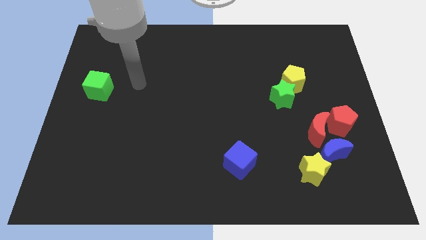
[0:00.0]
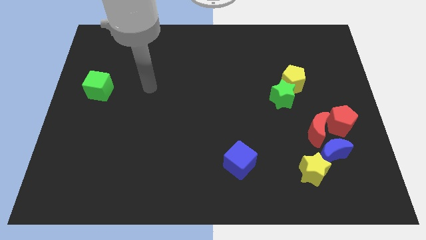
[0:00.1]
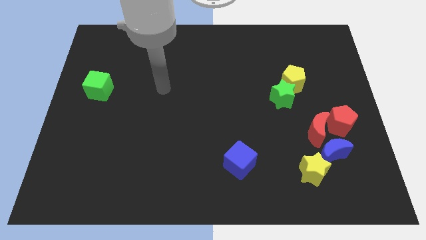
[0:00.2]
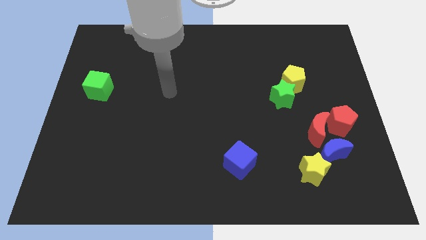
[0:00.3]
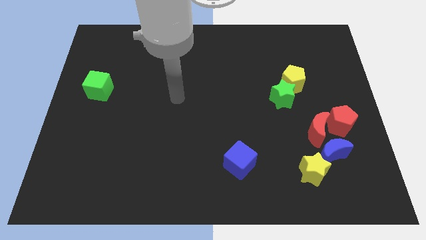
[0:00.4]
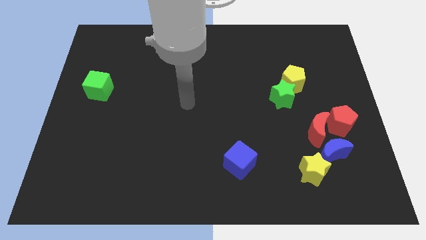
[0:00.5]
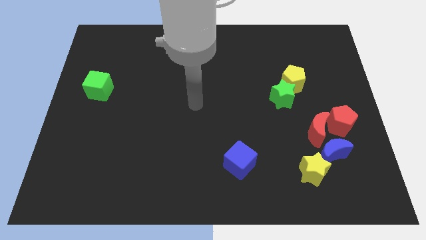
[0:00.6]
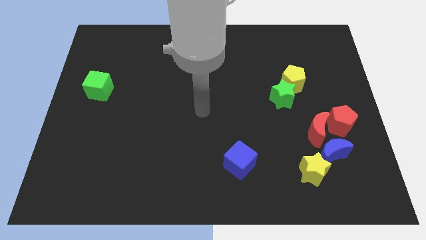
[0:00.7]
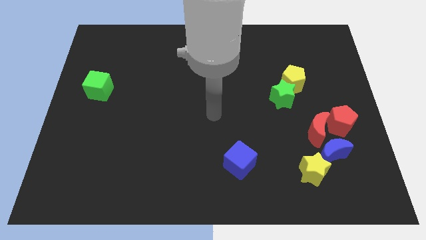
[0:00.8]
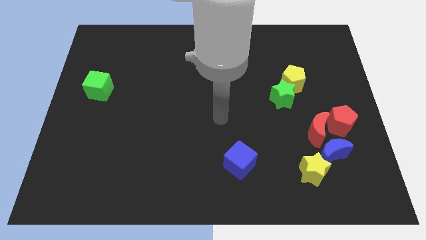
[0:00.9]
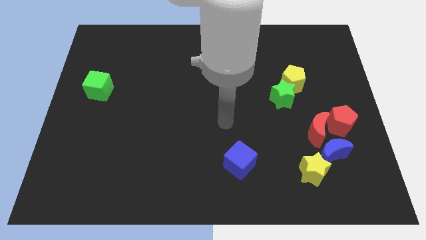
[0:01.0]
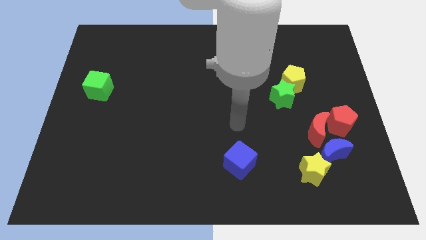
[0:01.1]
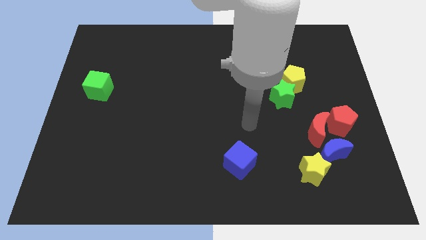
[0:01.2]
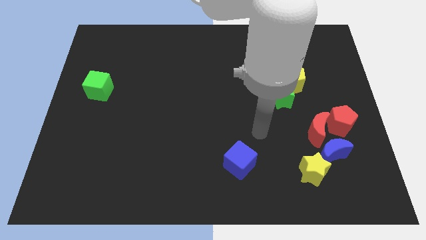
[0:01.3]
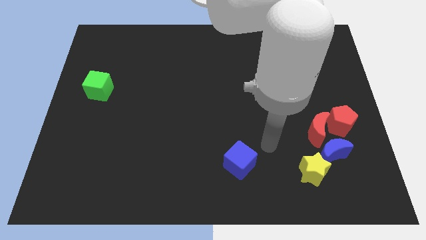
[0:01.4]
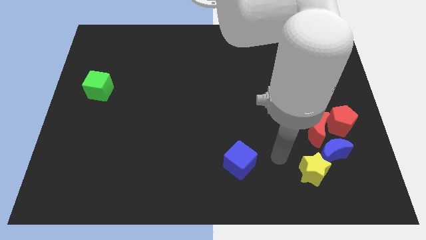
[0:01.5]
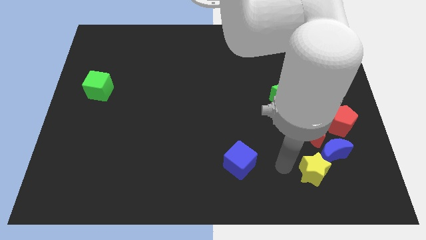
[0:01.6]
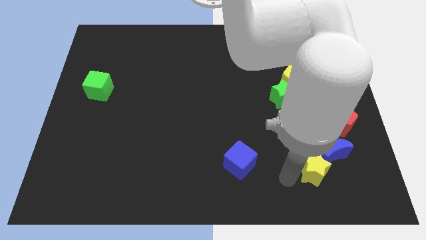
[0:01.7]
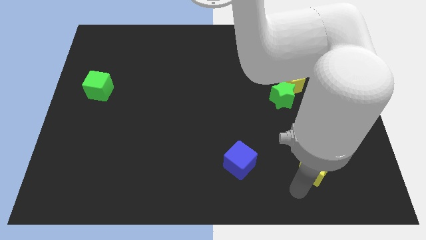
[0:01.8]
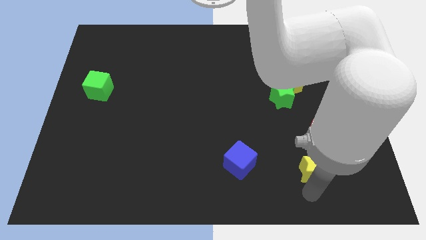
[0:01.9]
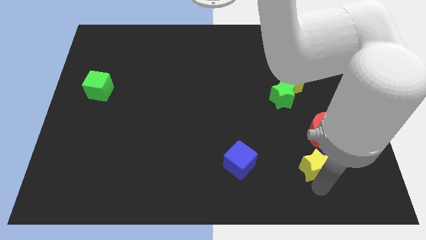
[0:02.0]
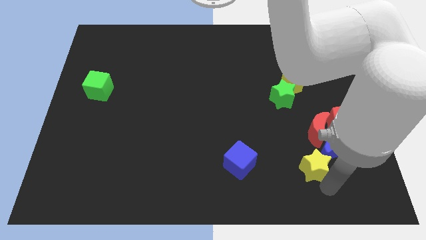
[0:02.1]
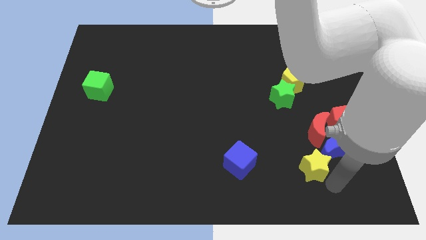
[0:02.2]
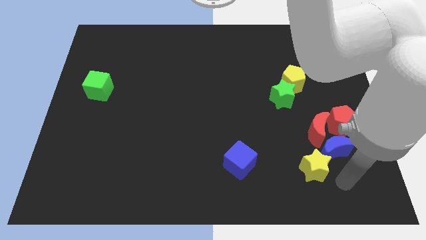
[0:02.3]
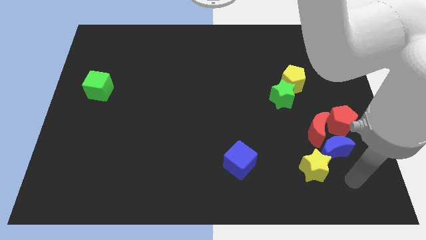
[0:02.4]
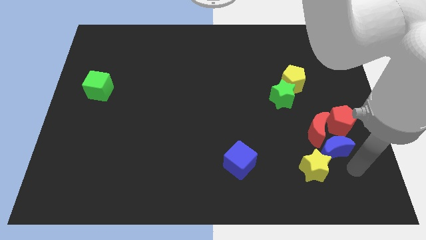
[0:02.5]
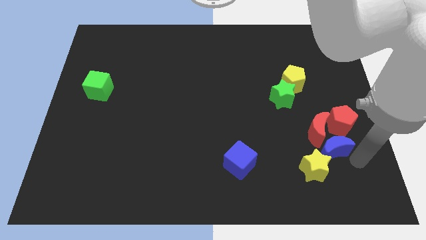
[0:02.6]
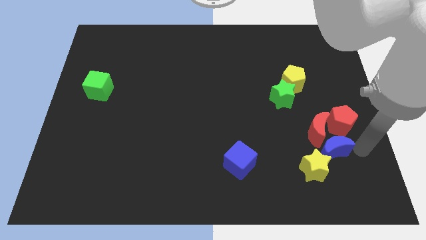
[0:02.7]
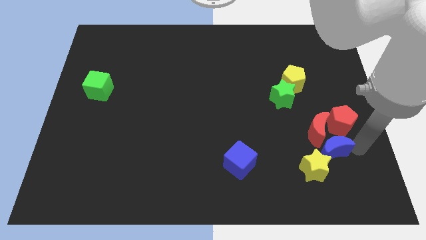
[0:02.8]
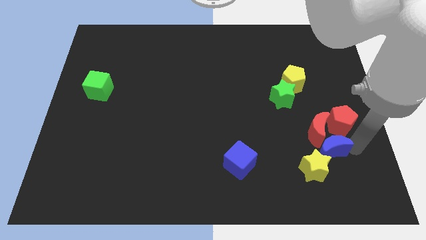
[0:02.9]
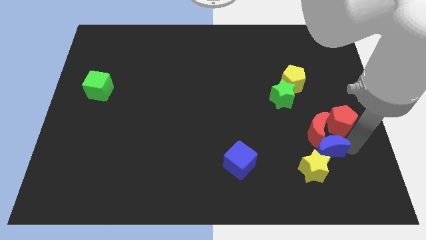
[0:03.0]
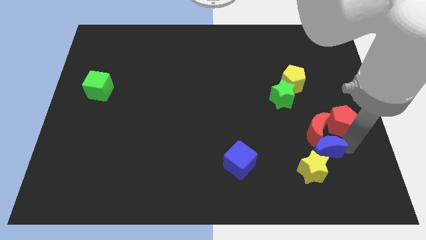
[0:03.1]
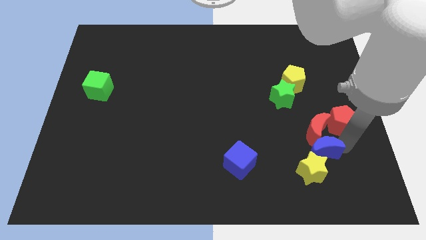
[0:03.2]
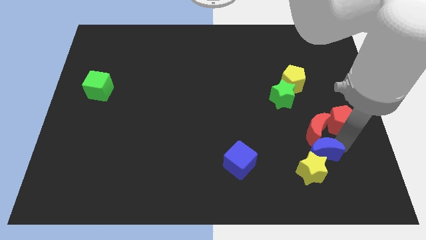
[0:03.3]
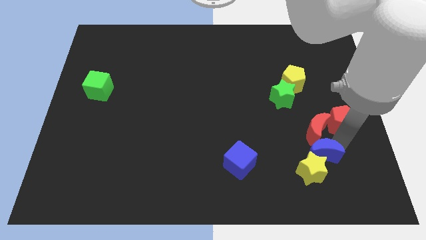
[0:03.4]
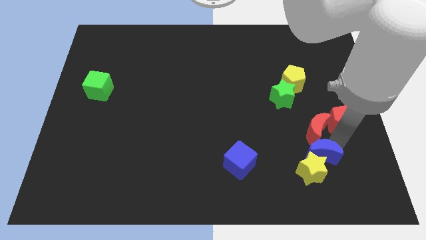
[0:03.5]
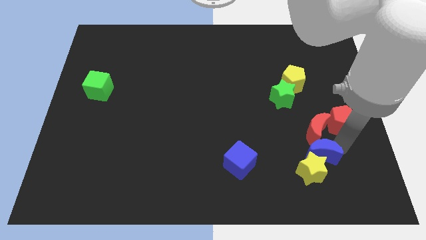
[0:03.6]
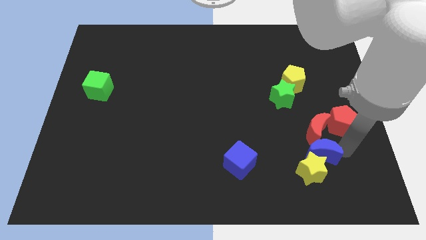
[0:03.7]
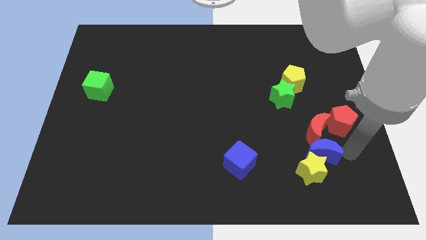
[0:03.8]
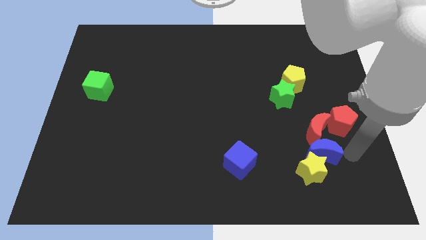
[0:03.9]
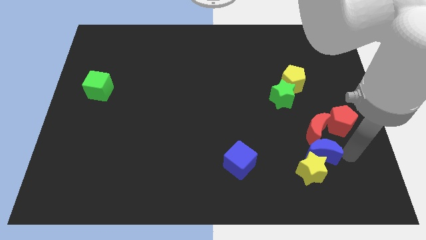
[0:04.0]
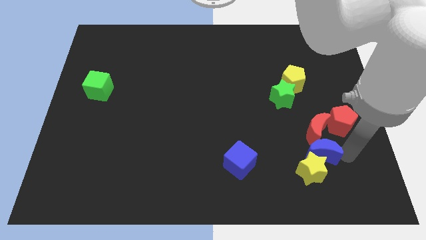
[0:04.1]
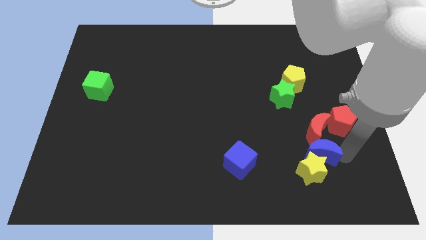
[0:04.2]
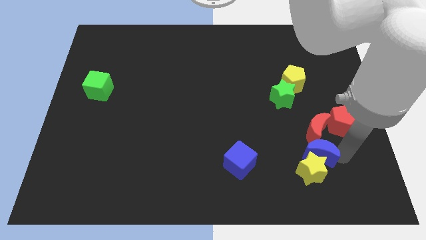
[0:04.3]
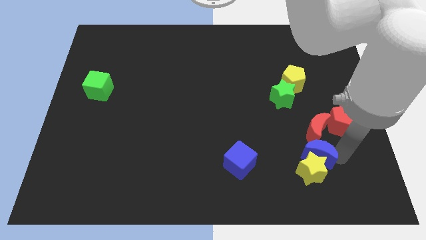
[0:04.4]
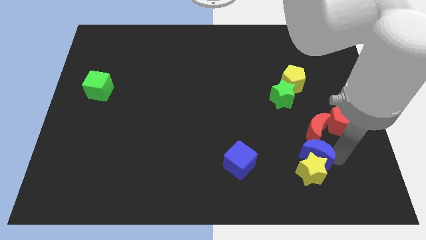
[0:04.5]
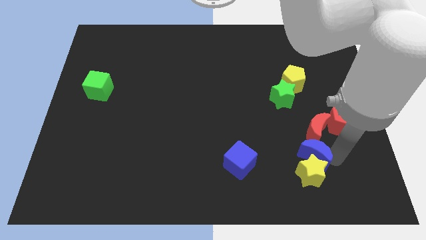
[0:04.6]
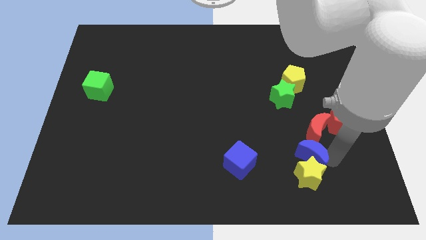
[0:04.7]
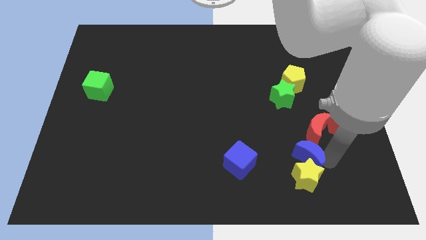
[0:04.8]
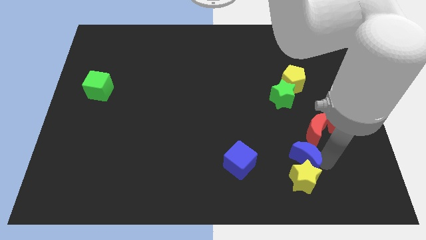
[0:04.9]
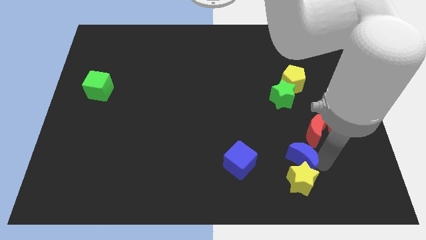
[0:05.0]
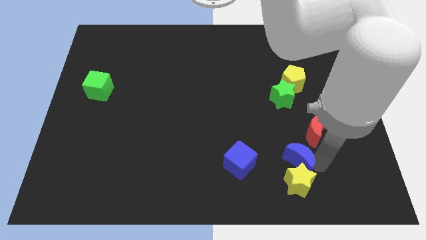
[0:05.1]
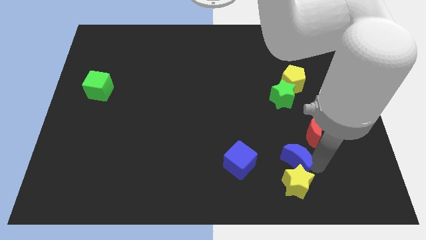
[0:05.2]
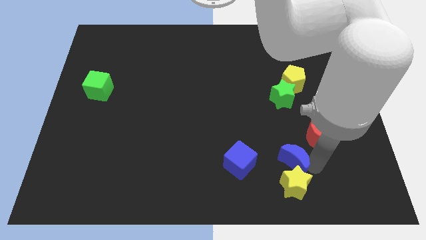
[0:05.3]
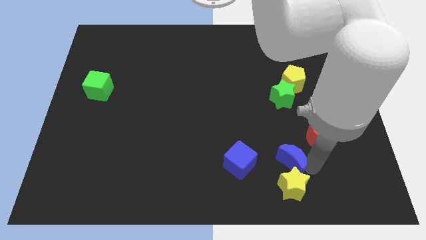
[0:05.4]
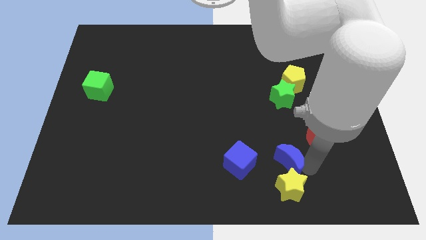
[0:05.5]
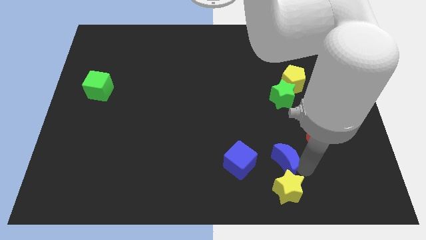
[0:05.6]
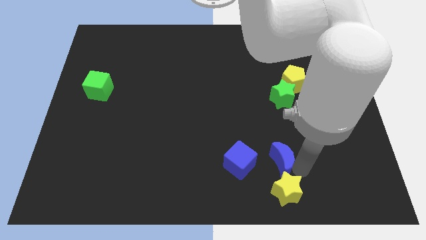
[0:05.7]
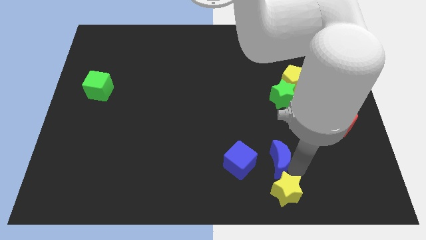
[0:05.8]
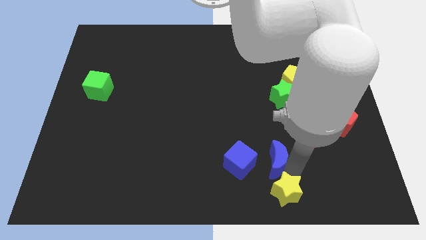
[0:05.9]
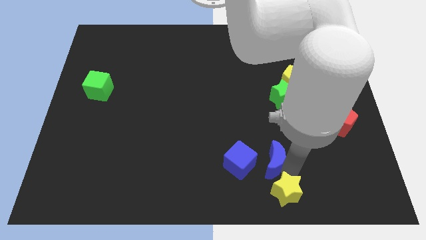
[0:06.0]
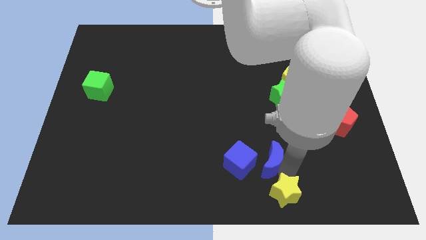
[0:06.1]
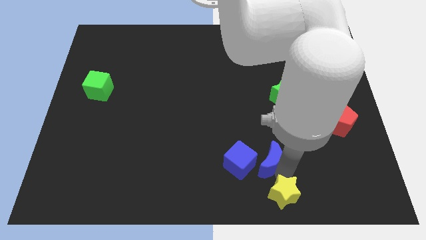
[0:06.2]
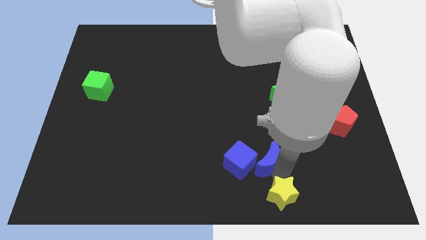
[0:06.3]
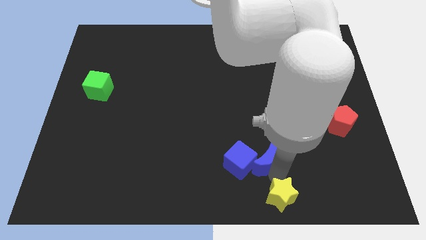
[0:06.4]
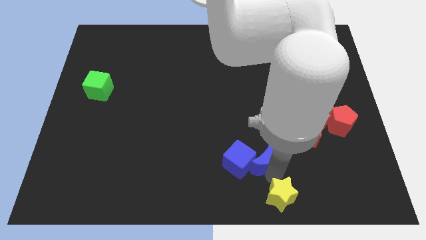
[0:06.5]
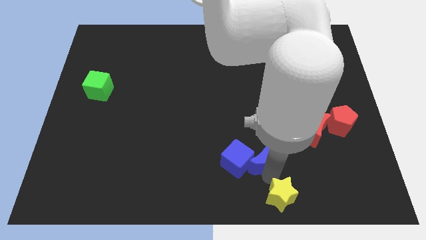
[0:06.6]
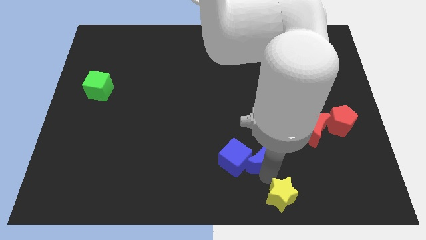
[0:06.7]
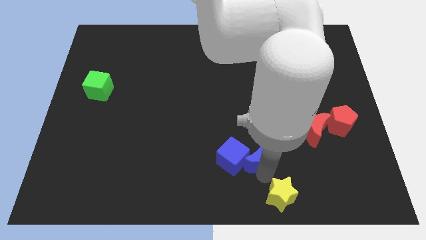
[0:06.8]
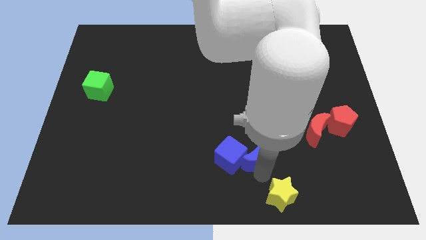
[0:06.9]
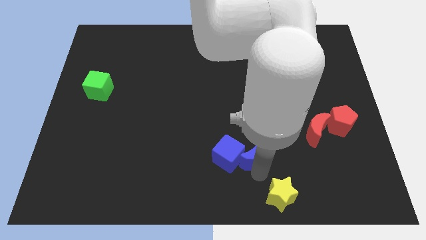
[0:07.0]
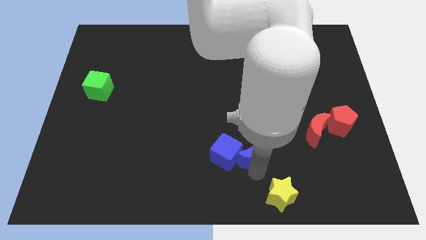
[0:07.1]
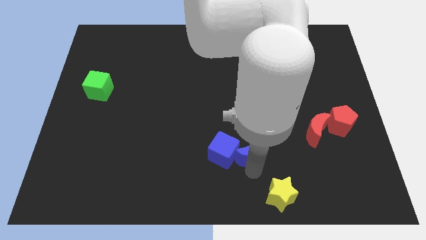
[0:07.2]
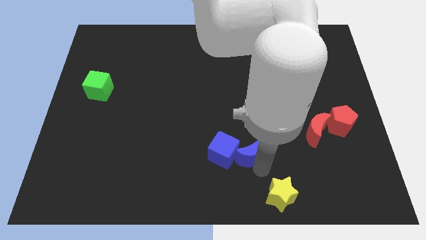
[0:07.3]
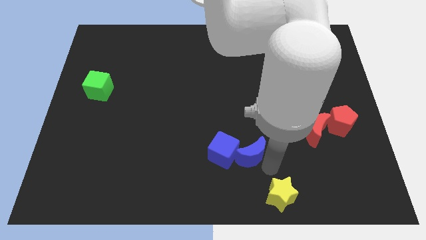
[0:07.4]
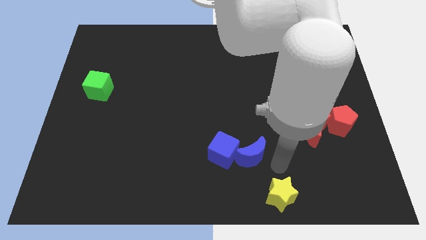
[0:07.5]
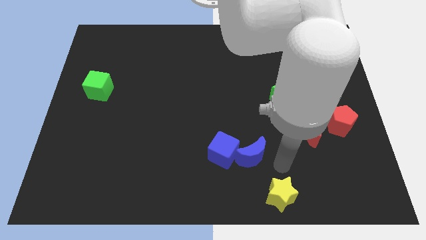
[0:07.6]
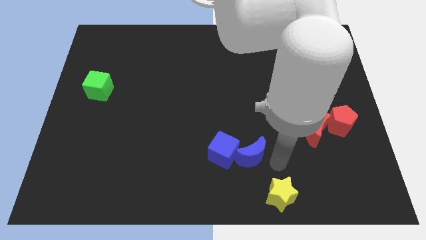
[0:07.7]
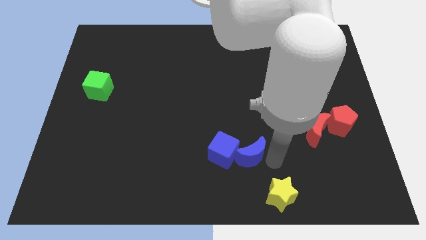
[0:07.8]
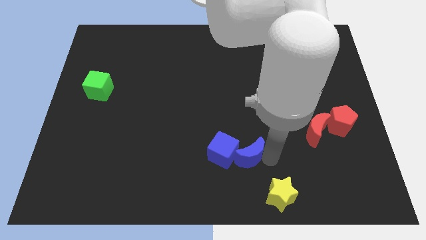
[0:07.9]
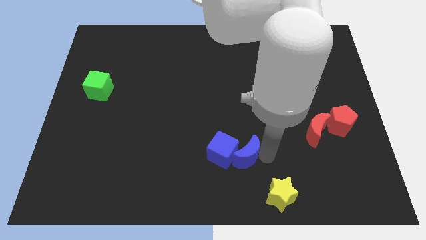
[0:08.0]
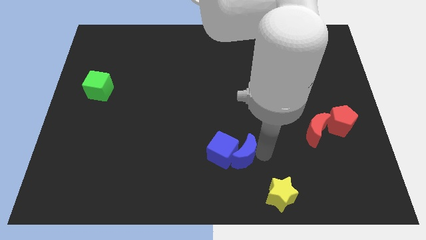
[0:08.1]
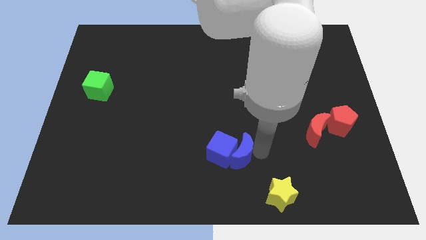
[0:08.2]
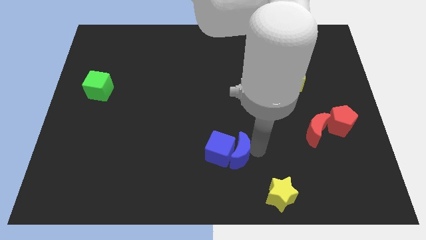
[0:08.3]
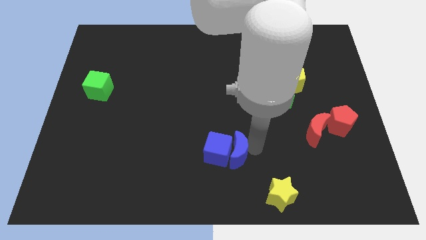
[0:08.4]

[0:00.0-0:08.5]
move the blue moon left
